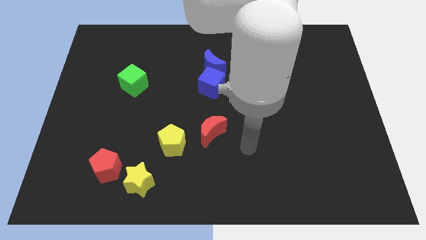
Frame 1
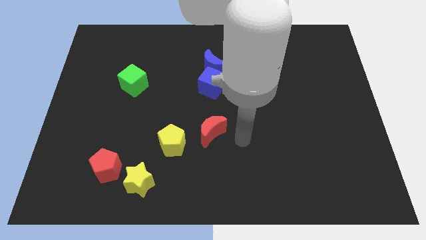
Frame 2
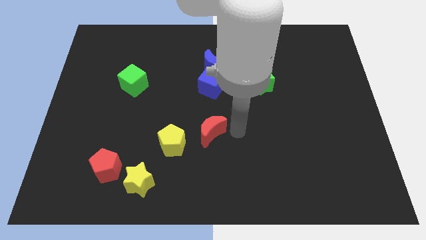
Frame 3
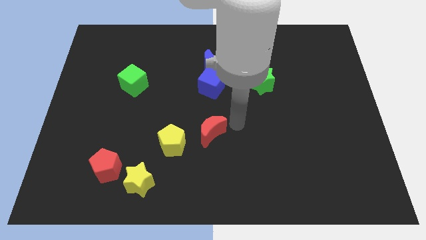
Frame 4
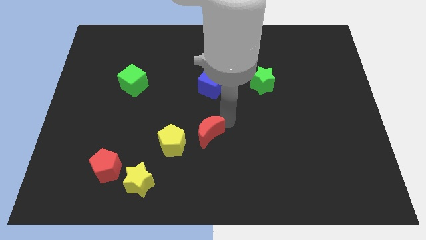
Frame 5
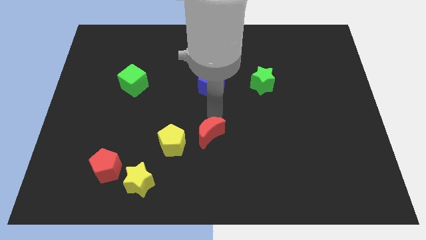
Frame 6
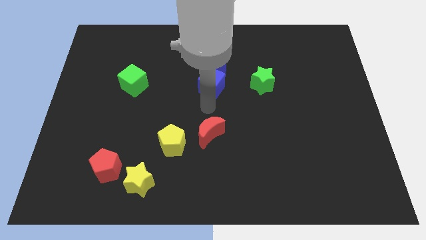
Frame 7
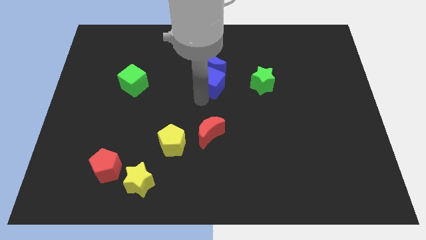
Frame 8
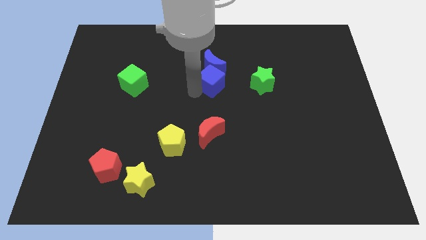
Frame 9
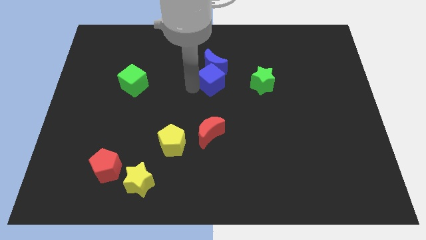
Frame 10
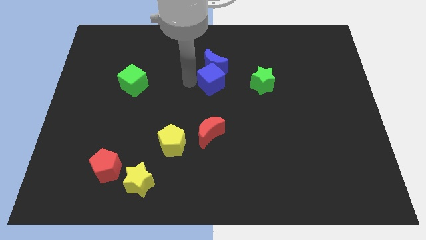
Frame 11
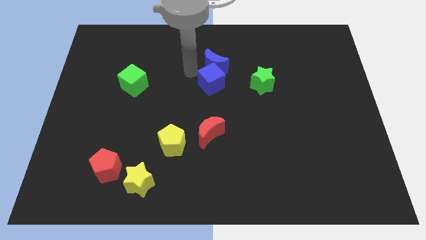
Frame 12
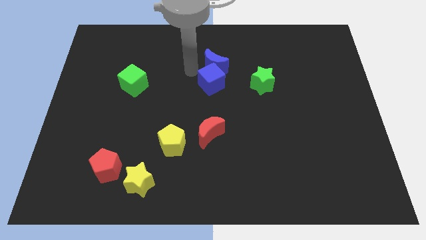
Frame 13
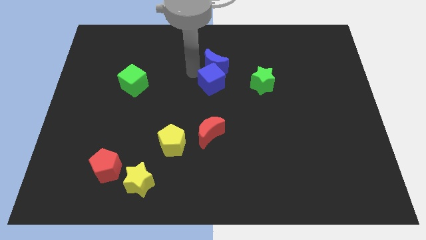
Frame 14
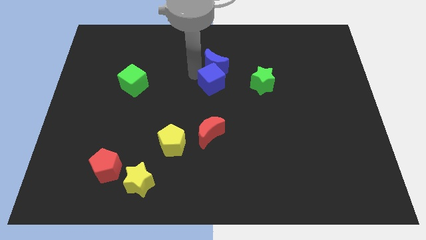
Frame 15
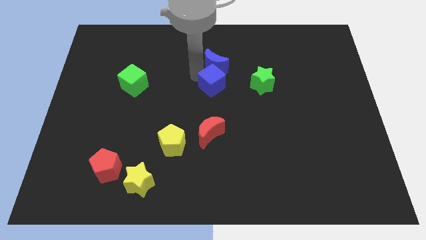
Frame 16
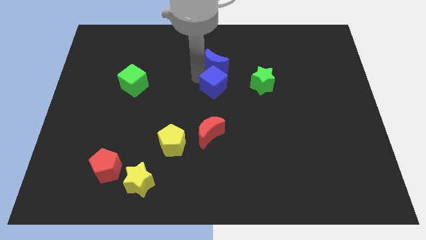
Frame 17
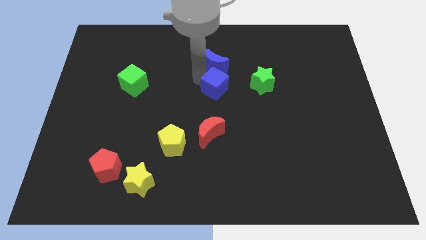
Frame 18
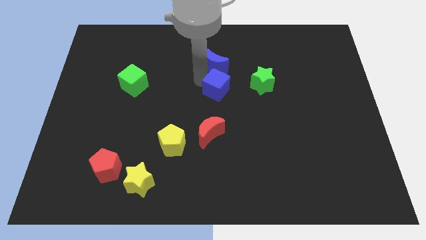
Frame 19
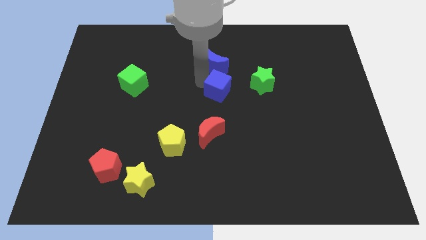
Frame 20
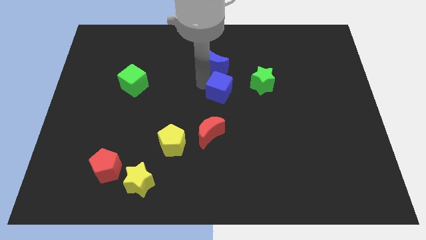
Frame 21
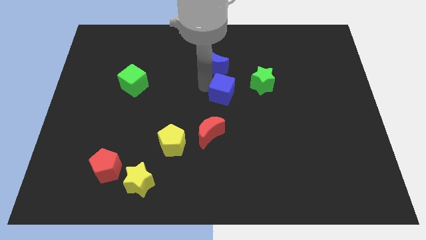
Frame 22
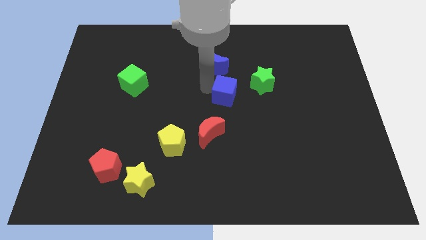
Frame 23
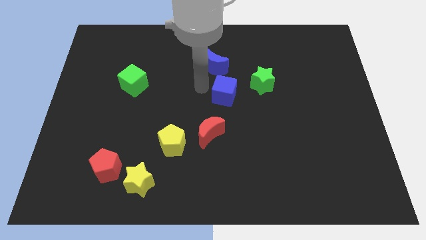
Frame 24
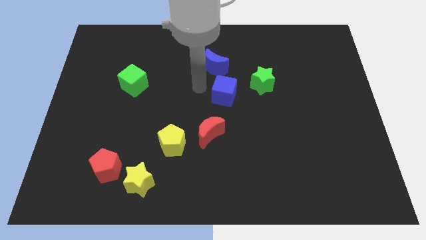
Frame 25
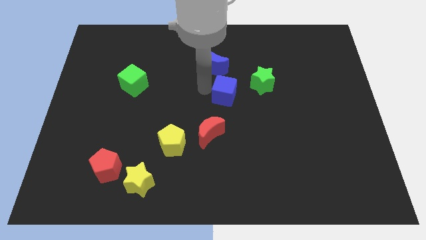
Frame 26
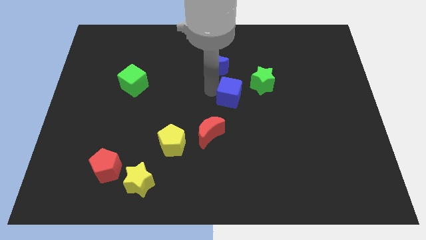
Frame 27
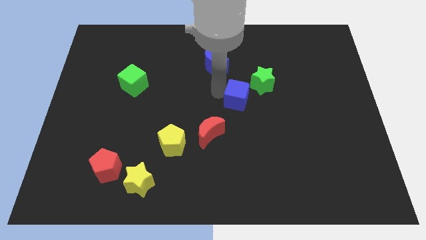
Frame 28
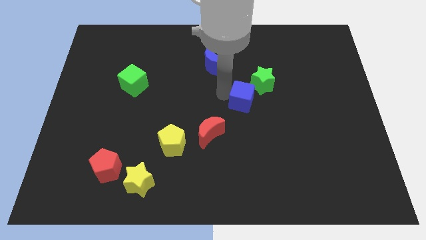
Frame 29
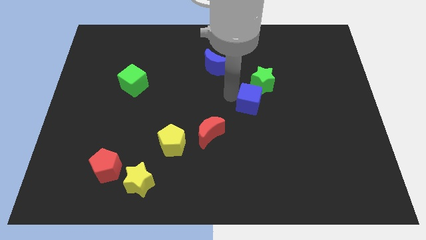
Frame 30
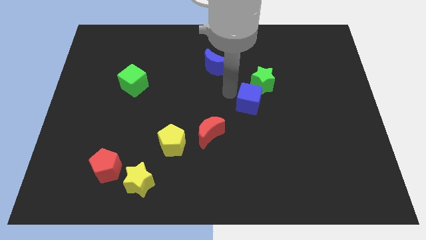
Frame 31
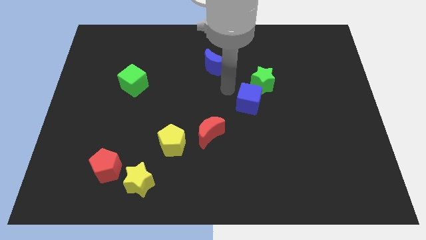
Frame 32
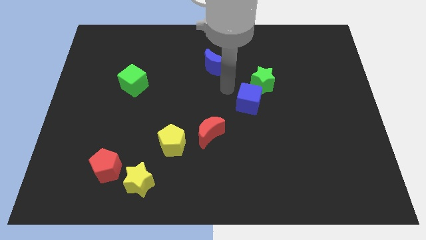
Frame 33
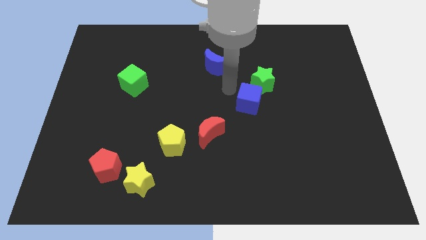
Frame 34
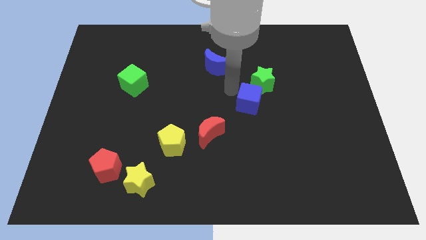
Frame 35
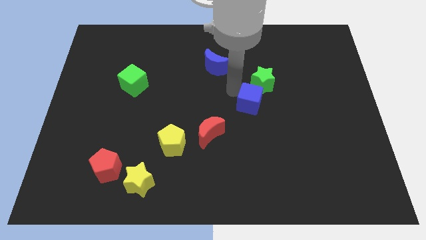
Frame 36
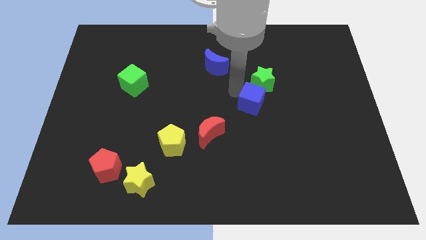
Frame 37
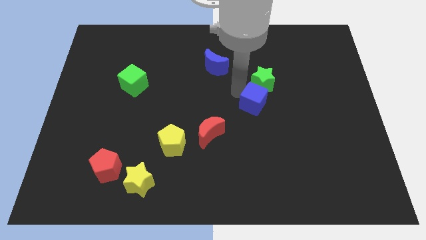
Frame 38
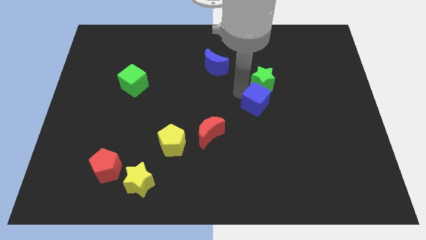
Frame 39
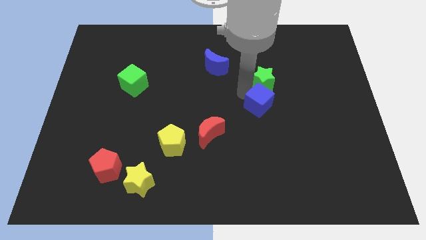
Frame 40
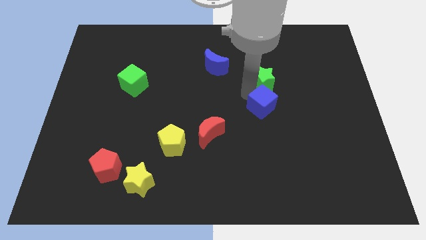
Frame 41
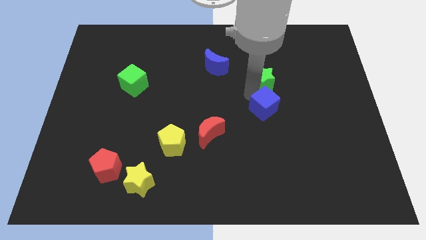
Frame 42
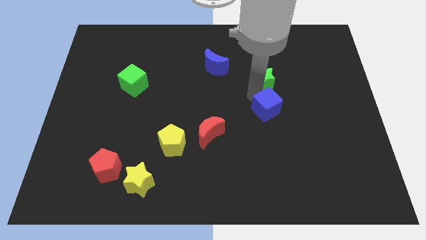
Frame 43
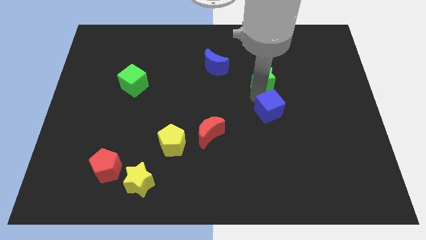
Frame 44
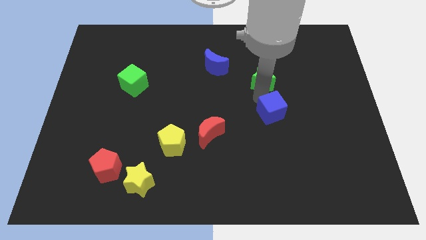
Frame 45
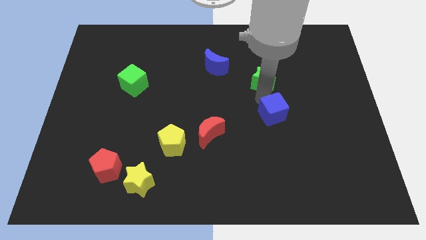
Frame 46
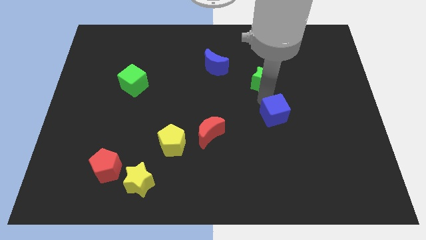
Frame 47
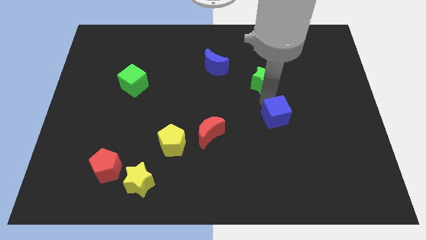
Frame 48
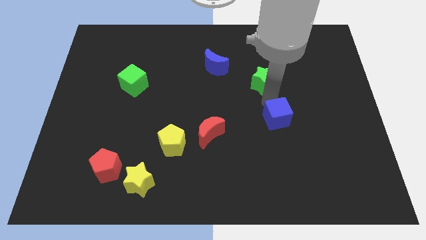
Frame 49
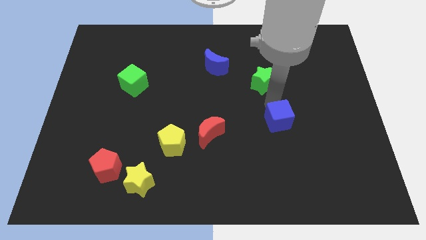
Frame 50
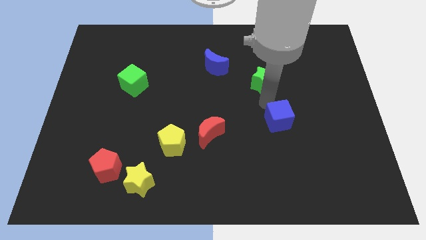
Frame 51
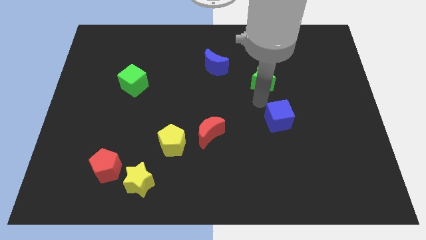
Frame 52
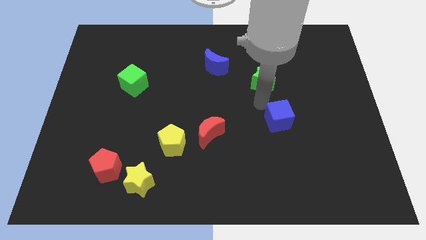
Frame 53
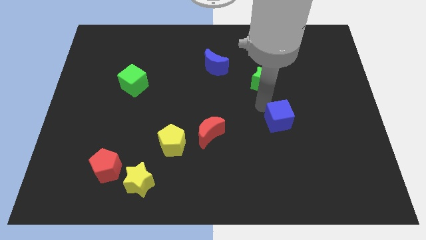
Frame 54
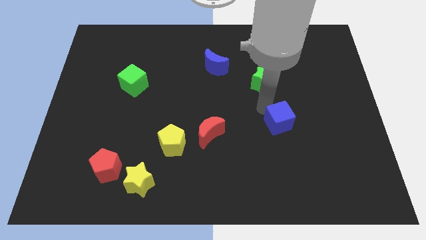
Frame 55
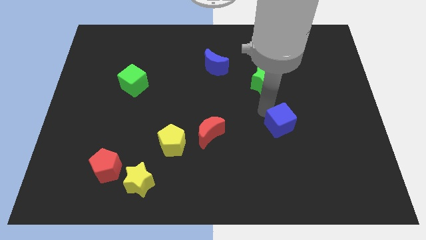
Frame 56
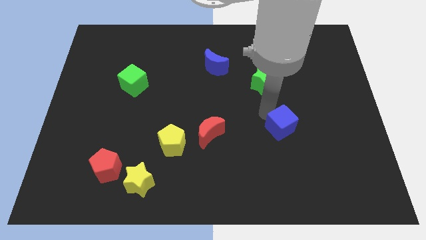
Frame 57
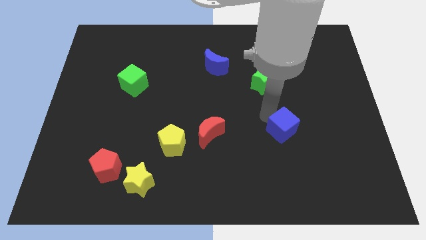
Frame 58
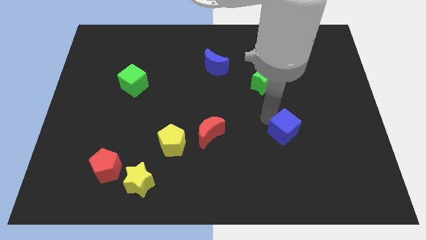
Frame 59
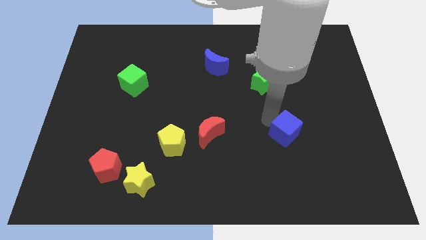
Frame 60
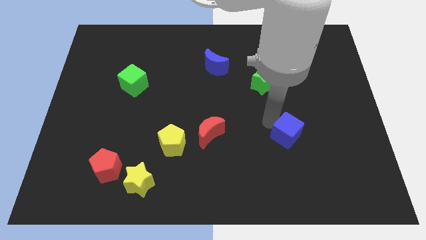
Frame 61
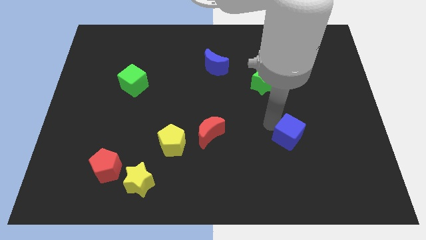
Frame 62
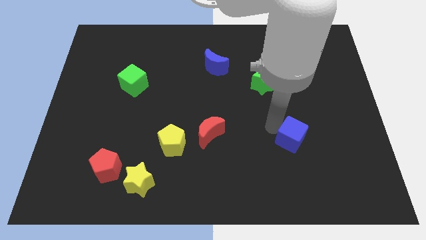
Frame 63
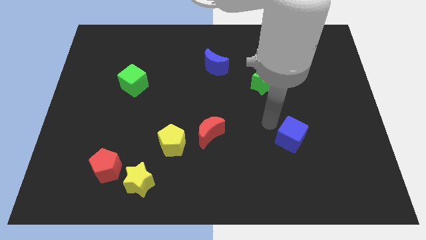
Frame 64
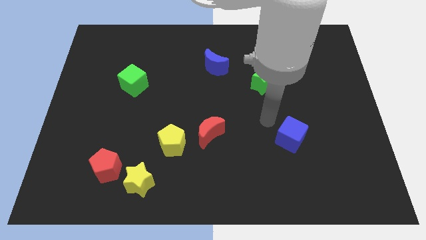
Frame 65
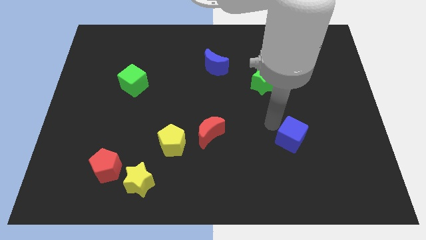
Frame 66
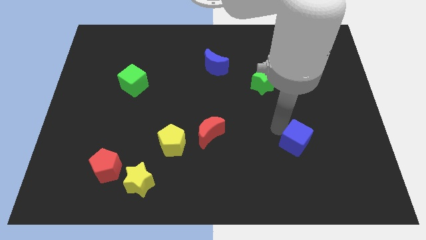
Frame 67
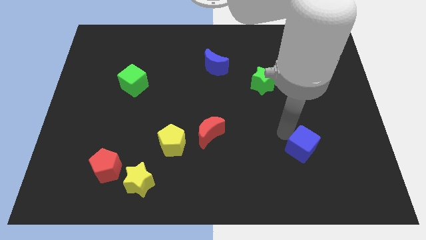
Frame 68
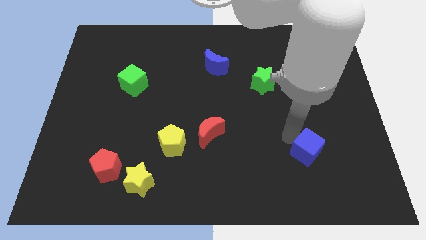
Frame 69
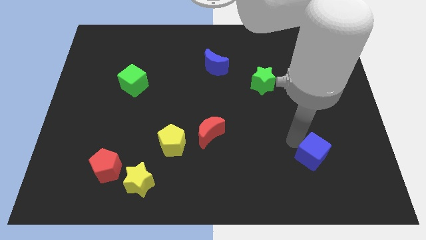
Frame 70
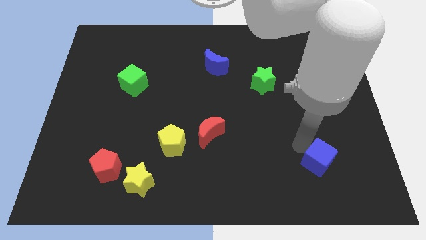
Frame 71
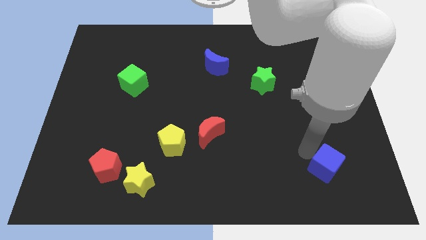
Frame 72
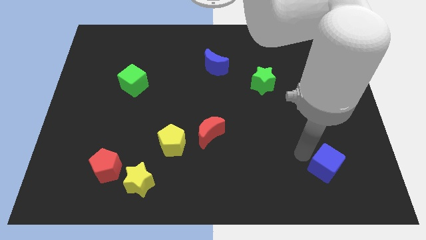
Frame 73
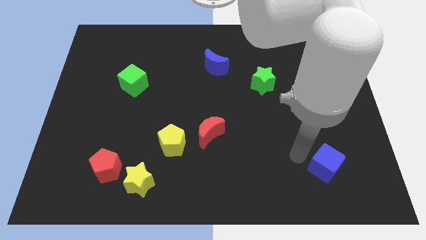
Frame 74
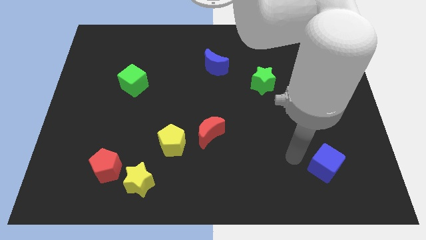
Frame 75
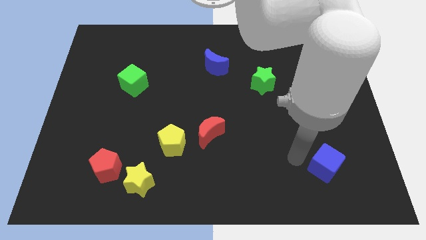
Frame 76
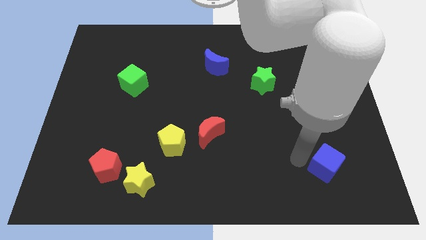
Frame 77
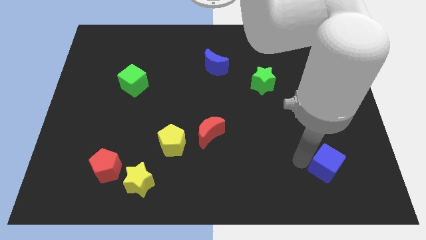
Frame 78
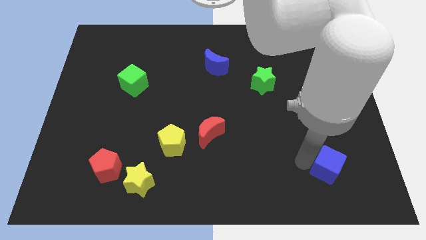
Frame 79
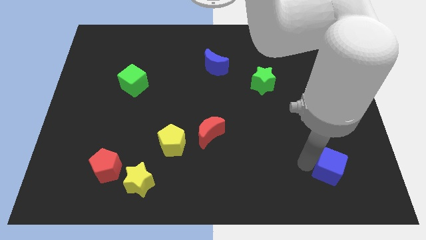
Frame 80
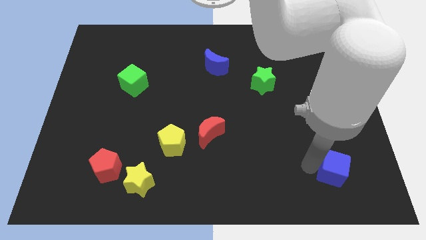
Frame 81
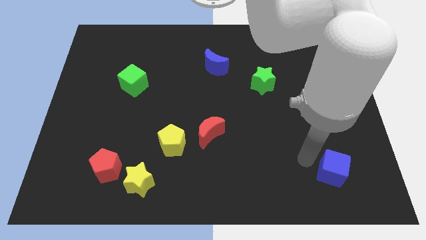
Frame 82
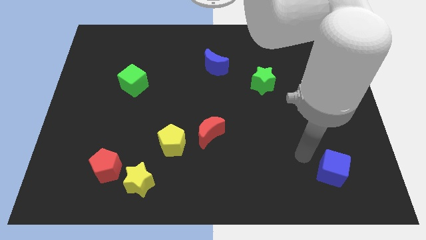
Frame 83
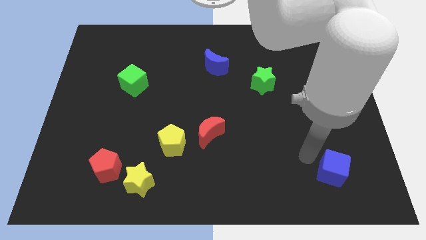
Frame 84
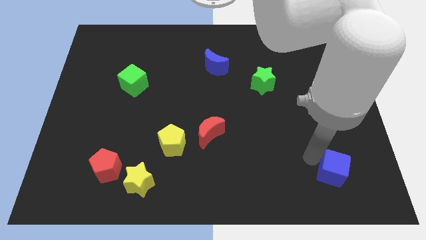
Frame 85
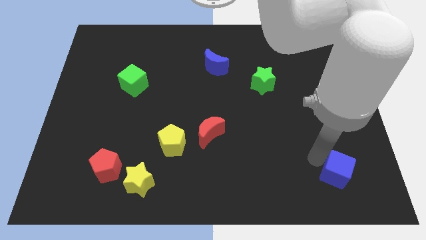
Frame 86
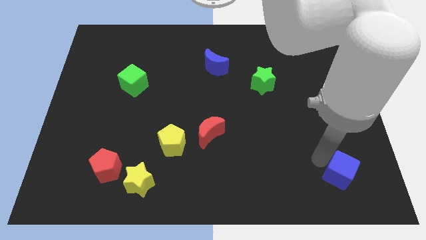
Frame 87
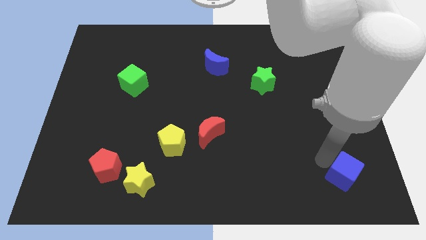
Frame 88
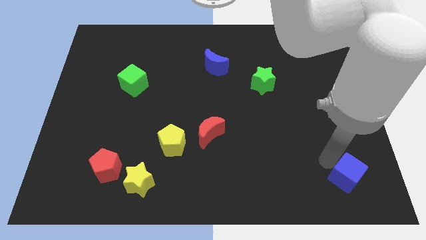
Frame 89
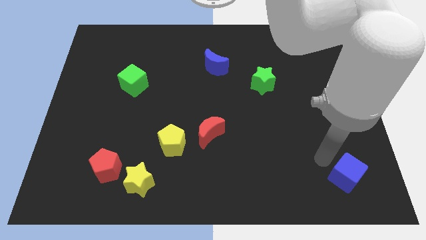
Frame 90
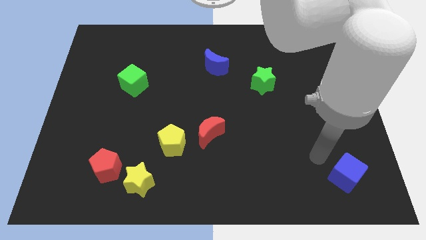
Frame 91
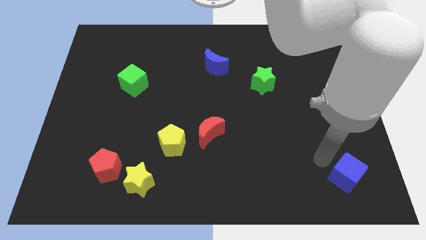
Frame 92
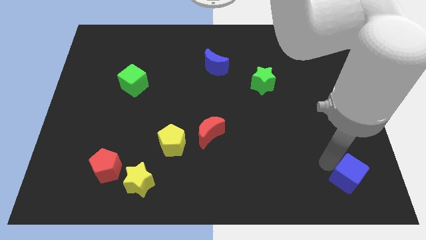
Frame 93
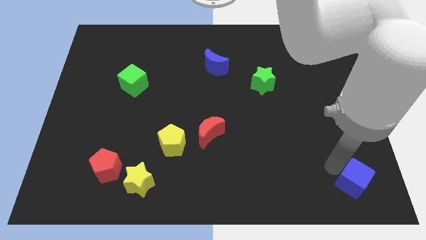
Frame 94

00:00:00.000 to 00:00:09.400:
push the blue cube to the bottom right of the board
